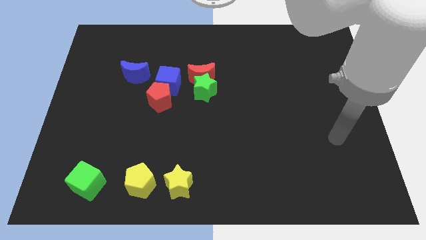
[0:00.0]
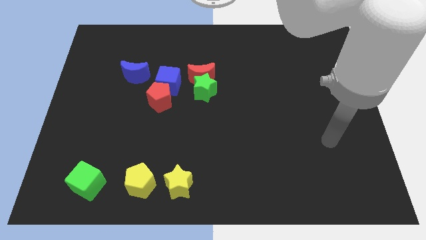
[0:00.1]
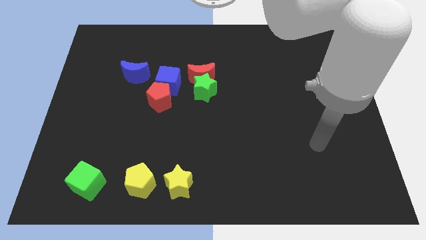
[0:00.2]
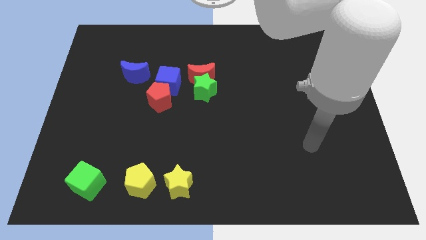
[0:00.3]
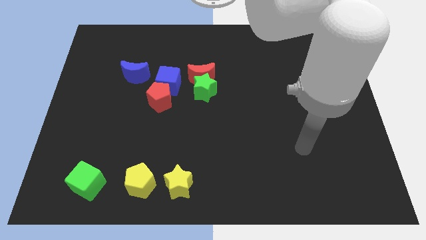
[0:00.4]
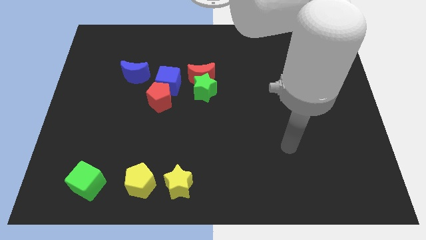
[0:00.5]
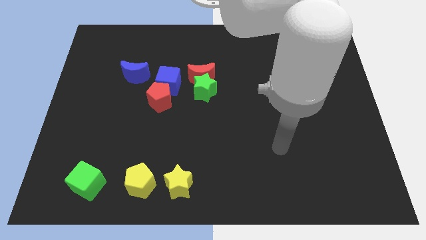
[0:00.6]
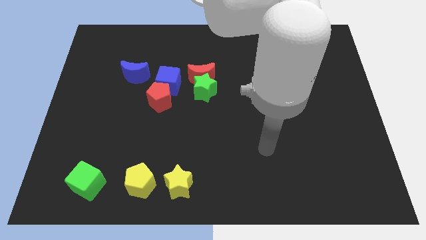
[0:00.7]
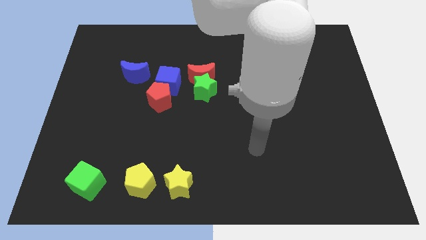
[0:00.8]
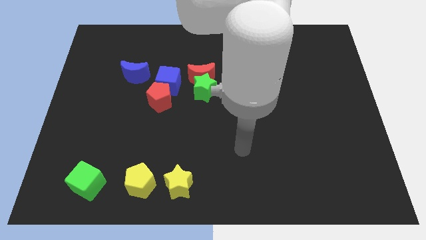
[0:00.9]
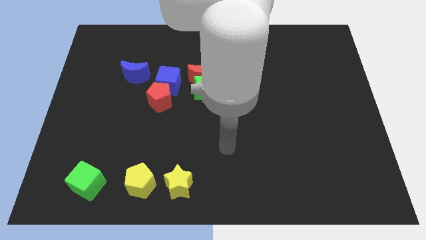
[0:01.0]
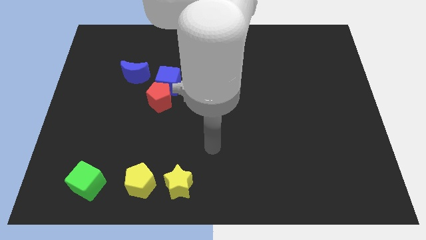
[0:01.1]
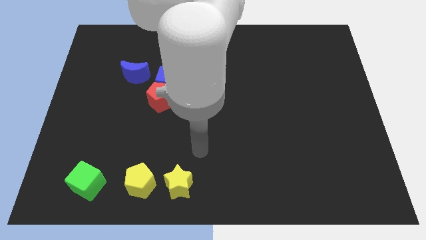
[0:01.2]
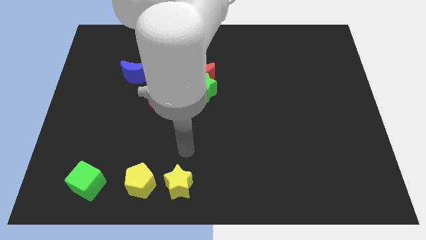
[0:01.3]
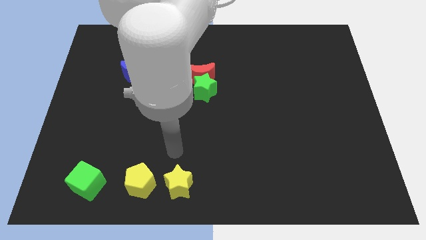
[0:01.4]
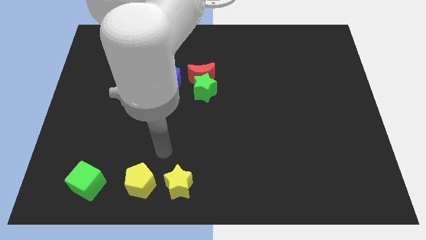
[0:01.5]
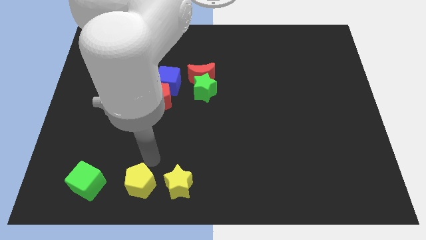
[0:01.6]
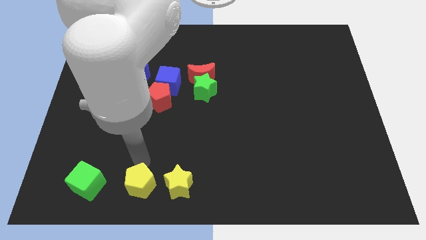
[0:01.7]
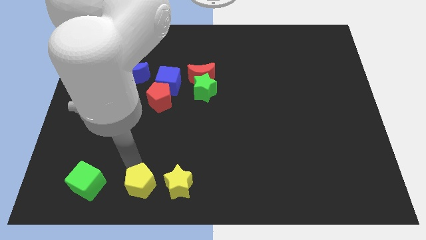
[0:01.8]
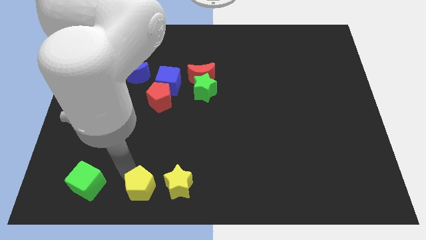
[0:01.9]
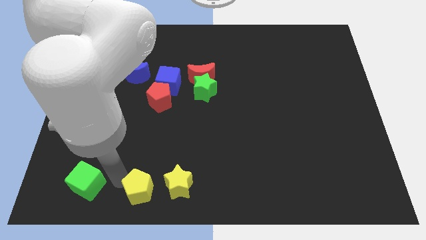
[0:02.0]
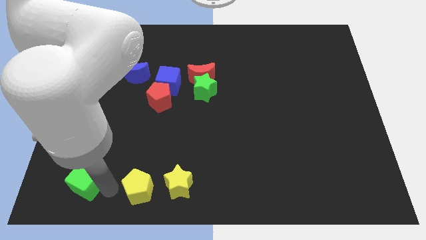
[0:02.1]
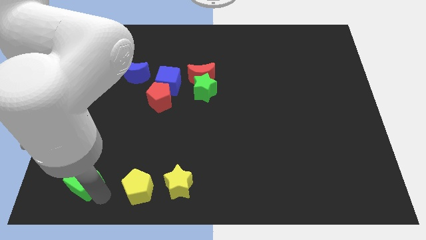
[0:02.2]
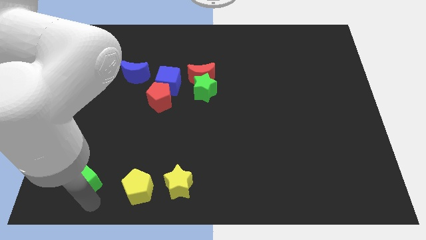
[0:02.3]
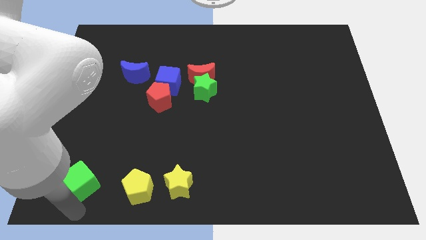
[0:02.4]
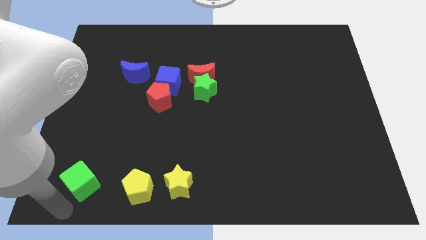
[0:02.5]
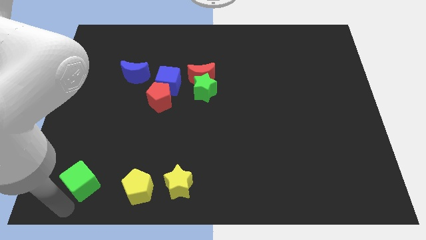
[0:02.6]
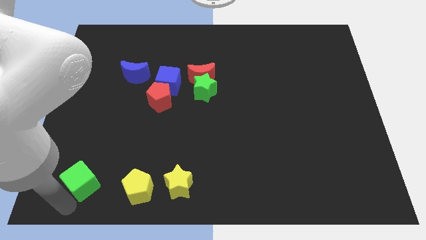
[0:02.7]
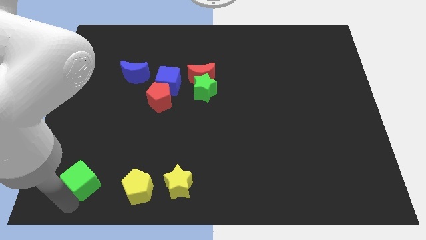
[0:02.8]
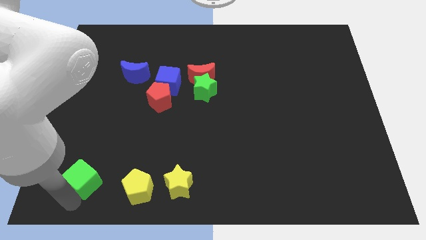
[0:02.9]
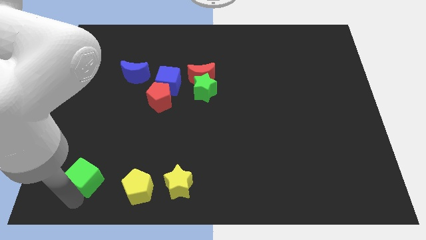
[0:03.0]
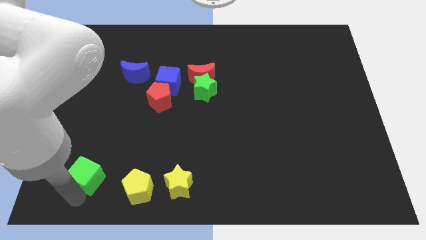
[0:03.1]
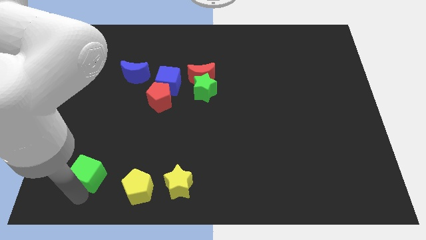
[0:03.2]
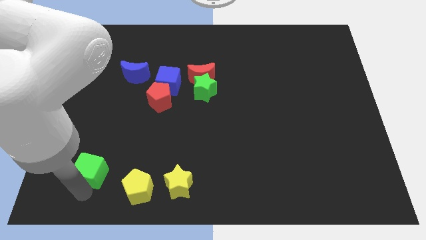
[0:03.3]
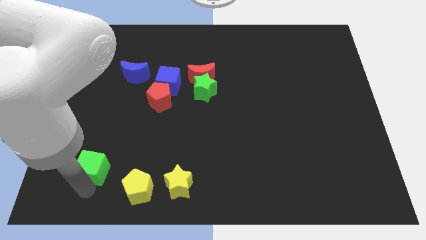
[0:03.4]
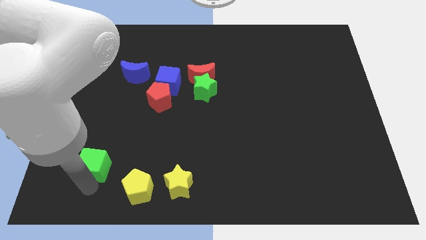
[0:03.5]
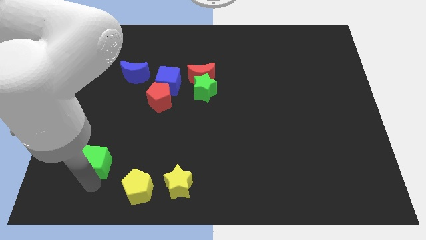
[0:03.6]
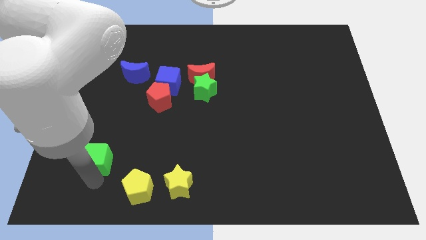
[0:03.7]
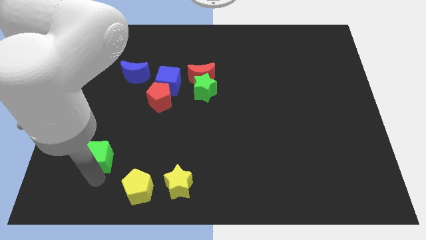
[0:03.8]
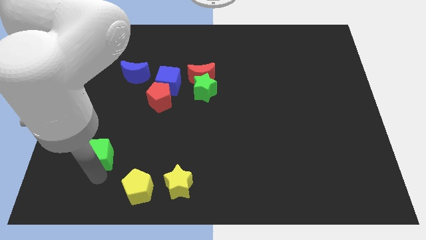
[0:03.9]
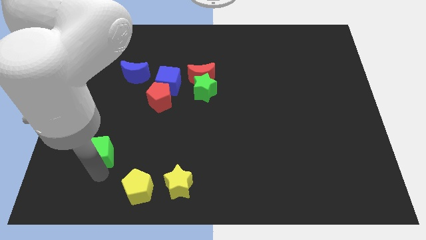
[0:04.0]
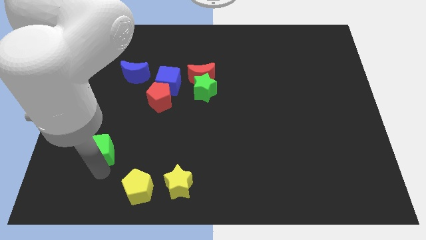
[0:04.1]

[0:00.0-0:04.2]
move the green cube somewhat upwards

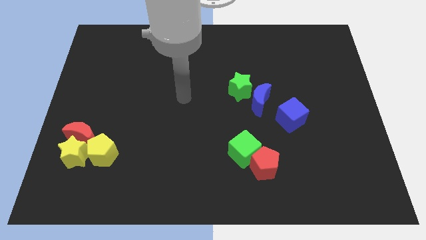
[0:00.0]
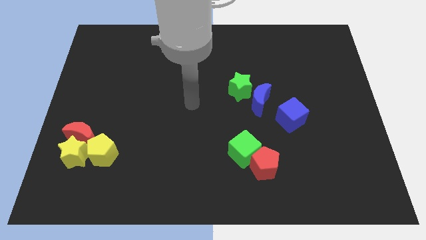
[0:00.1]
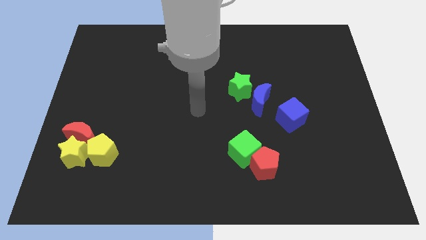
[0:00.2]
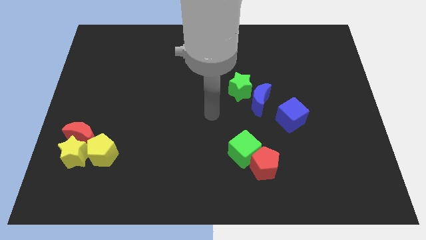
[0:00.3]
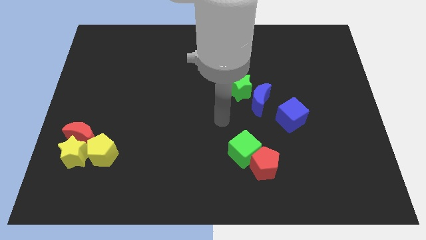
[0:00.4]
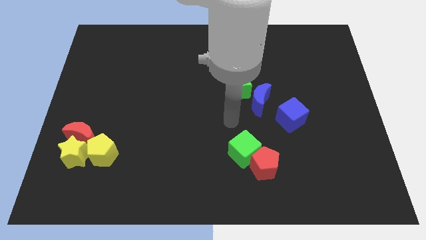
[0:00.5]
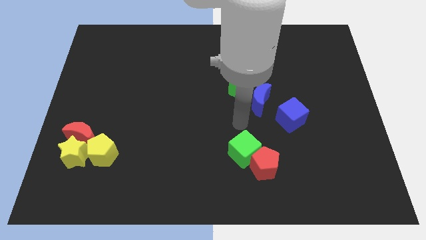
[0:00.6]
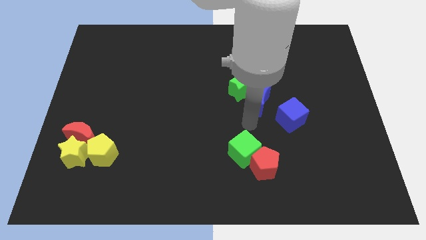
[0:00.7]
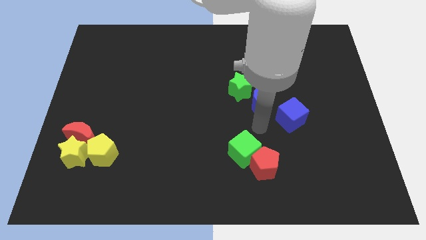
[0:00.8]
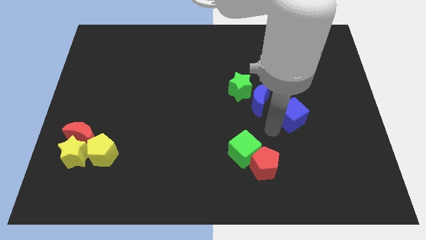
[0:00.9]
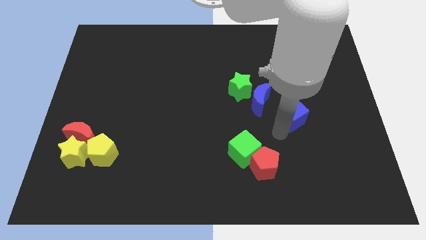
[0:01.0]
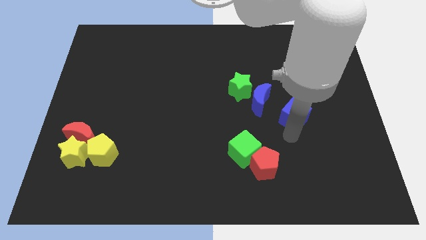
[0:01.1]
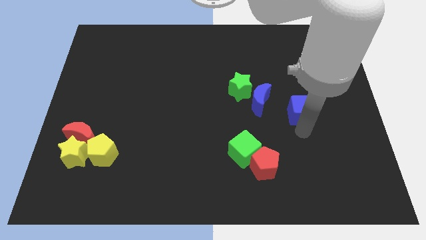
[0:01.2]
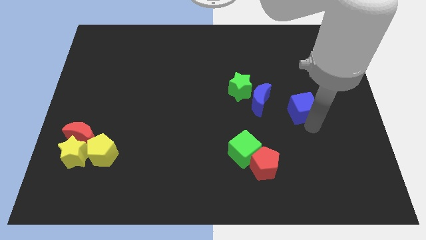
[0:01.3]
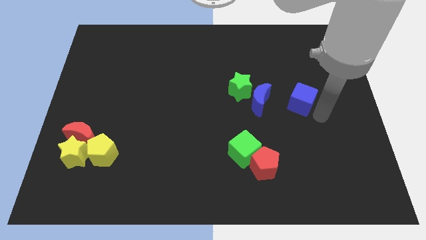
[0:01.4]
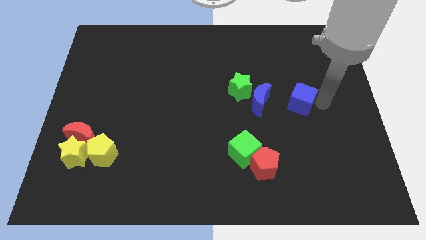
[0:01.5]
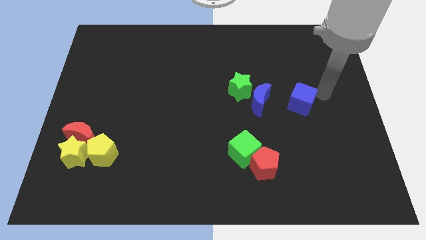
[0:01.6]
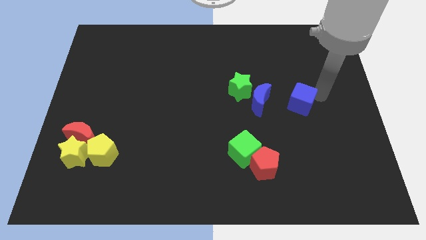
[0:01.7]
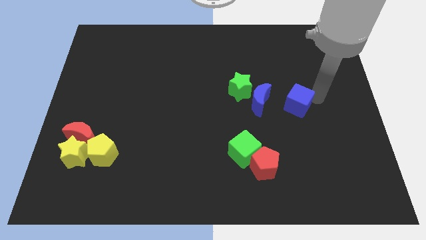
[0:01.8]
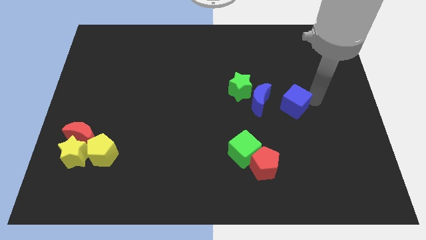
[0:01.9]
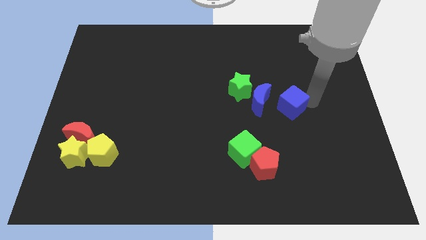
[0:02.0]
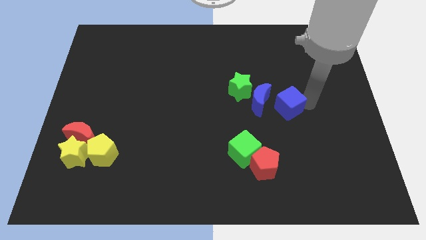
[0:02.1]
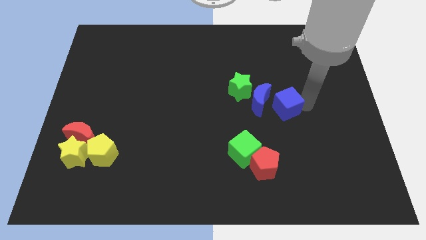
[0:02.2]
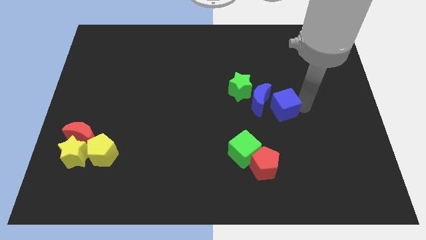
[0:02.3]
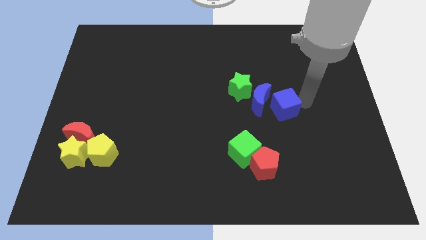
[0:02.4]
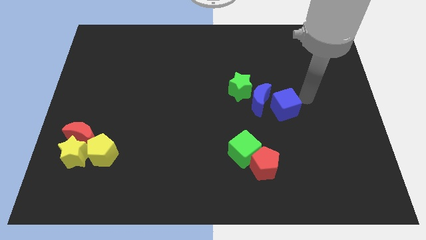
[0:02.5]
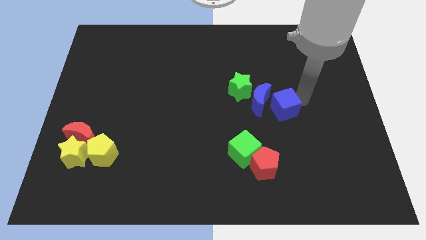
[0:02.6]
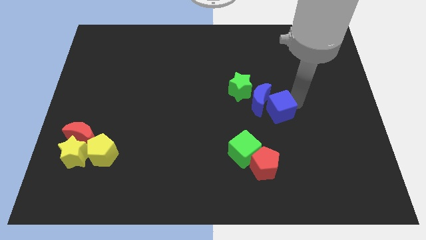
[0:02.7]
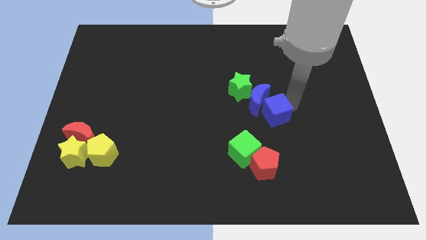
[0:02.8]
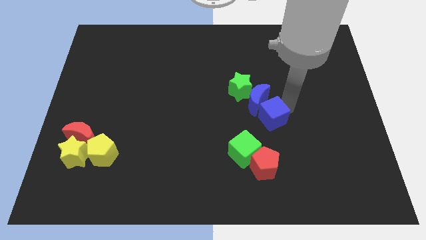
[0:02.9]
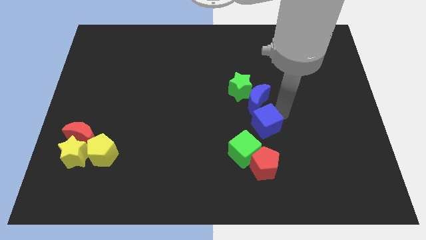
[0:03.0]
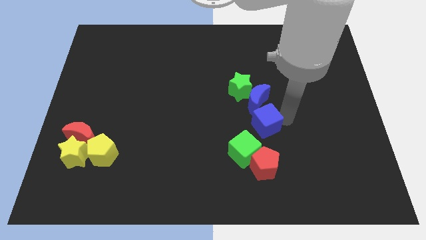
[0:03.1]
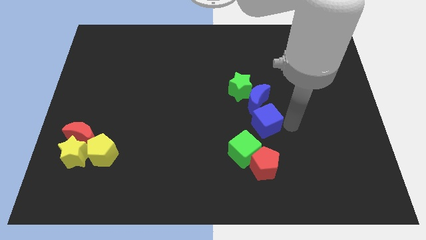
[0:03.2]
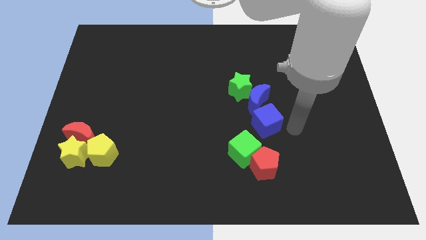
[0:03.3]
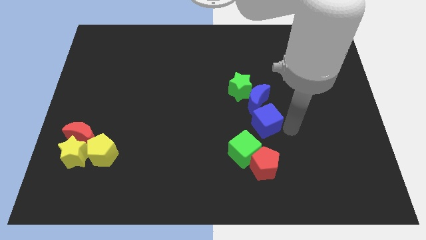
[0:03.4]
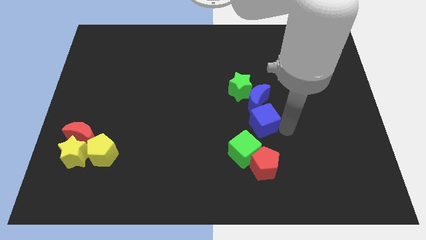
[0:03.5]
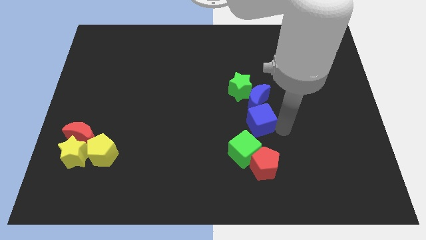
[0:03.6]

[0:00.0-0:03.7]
push the blue cube left a little
